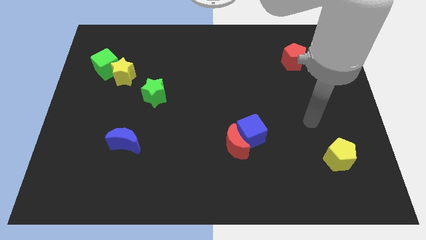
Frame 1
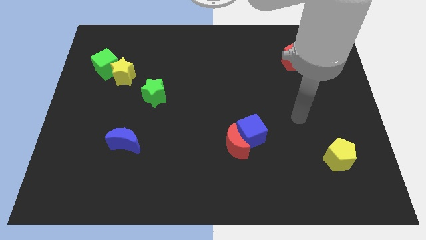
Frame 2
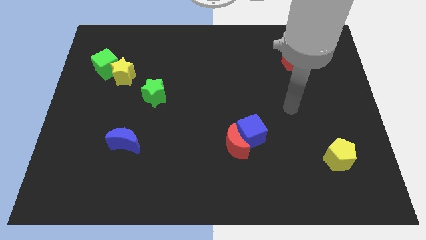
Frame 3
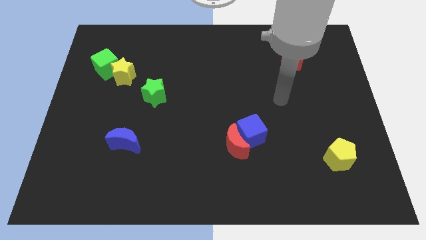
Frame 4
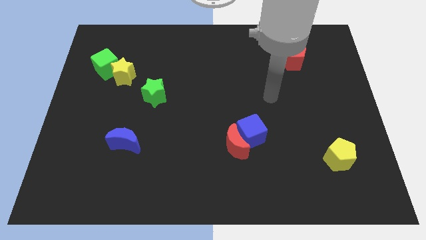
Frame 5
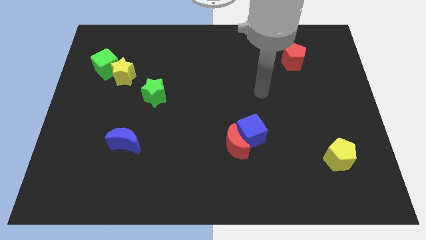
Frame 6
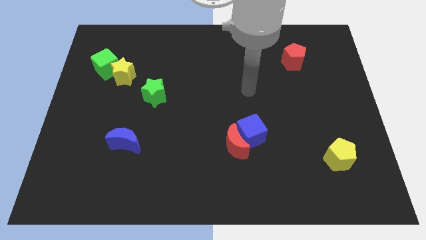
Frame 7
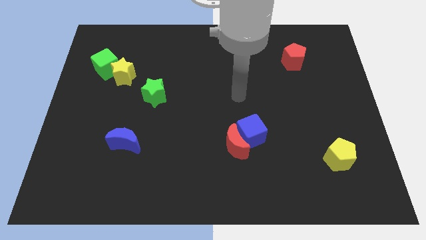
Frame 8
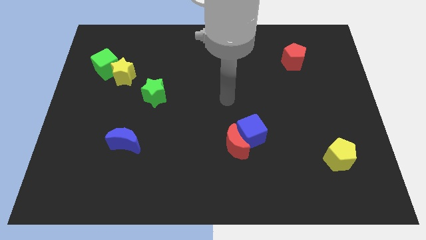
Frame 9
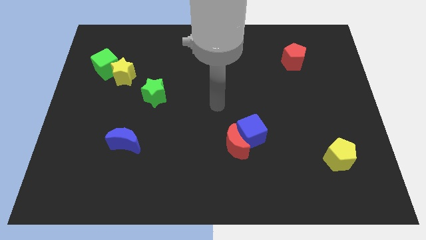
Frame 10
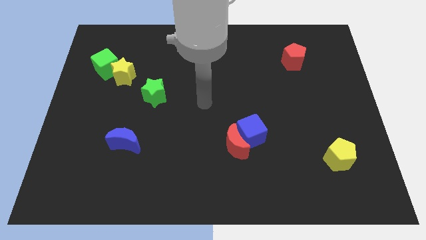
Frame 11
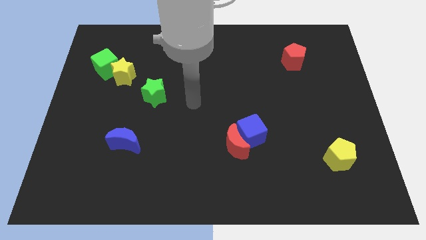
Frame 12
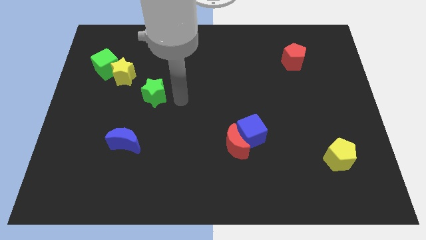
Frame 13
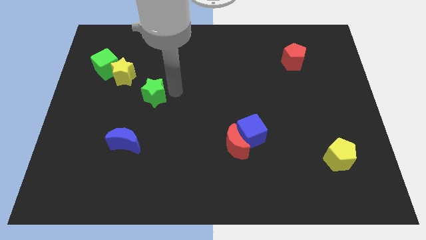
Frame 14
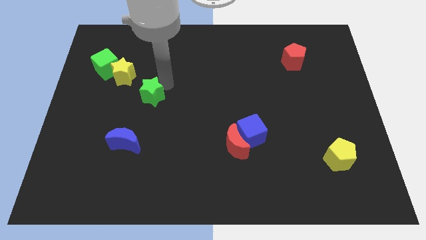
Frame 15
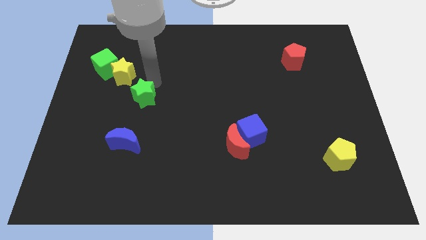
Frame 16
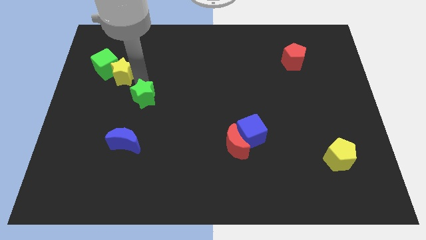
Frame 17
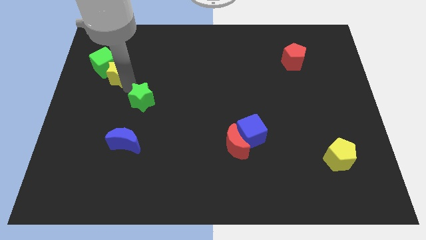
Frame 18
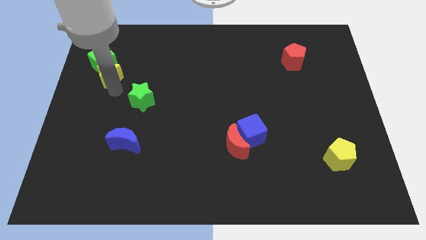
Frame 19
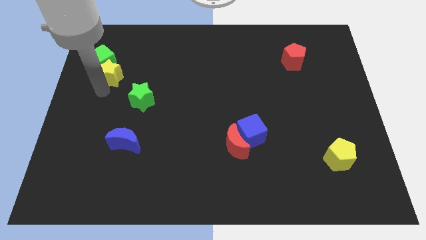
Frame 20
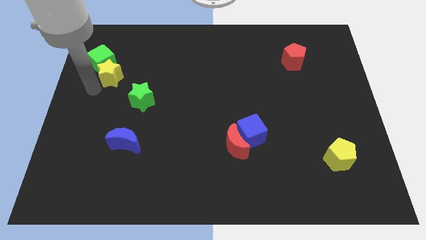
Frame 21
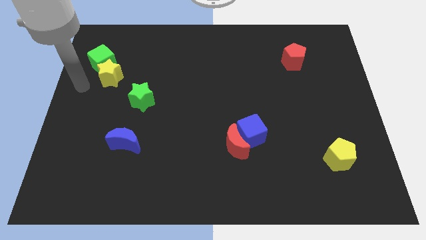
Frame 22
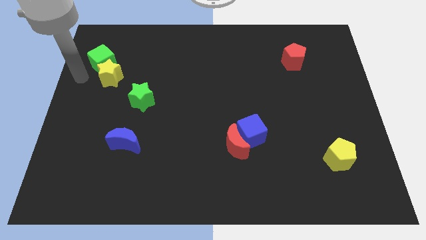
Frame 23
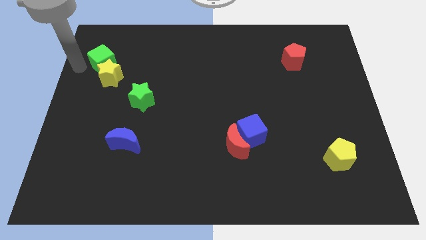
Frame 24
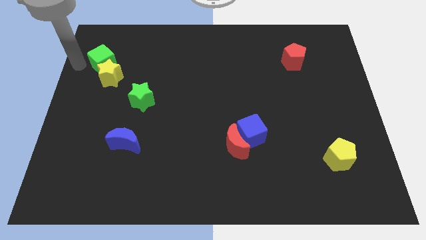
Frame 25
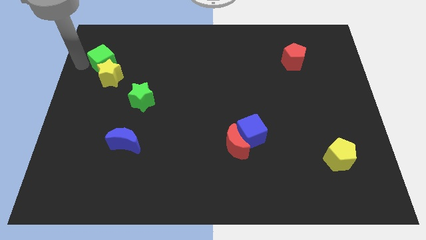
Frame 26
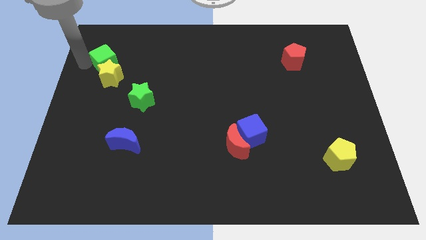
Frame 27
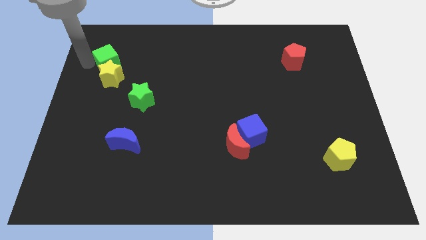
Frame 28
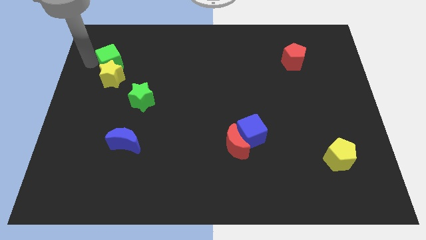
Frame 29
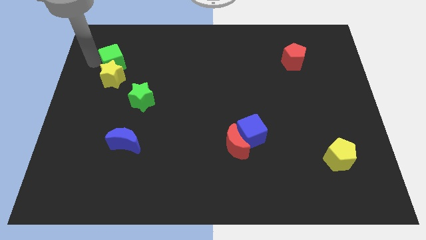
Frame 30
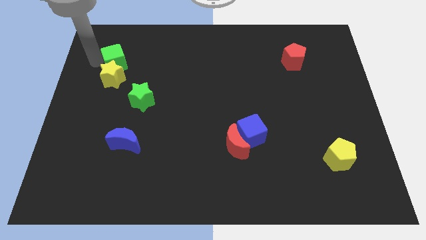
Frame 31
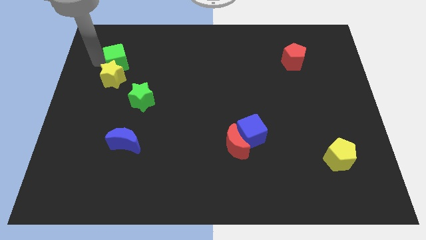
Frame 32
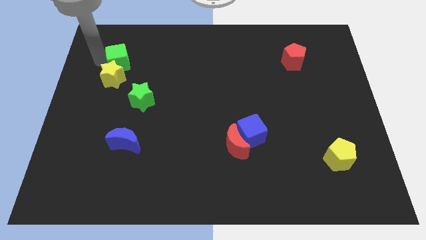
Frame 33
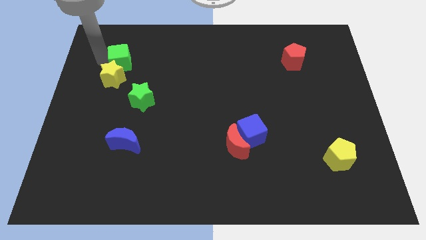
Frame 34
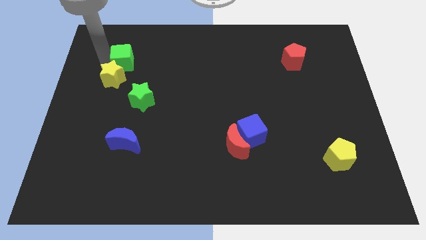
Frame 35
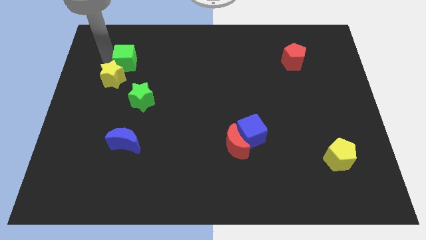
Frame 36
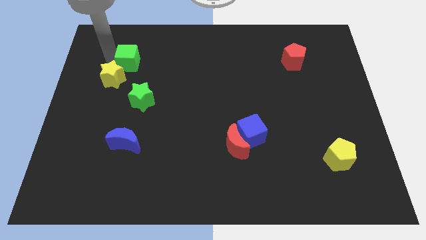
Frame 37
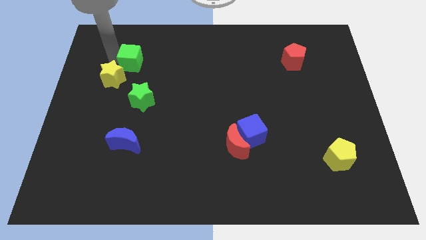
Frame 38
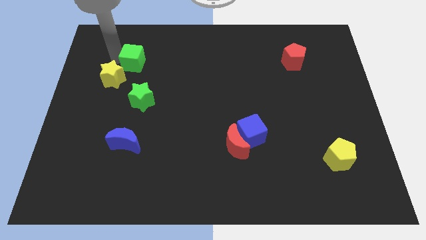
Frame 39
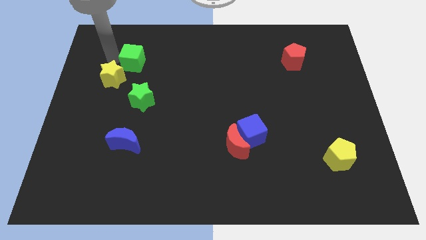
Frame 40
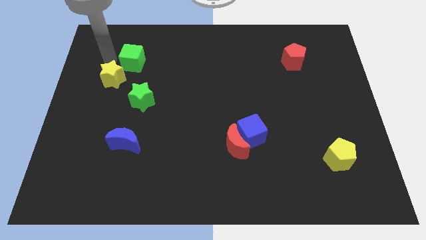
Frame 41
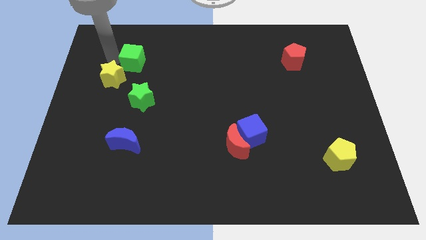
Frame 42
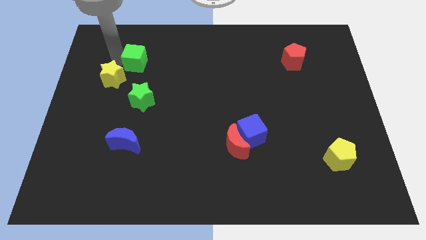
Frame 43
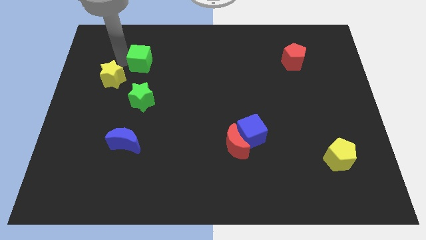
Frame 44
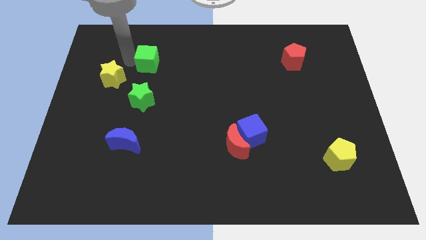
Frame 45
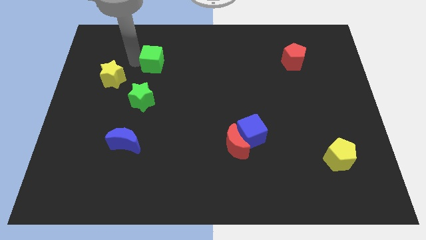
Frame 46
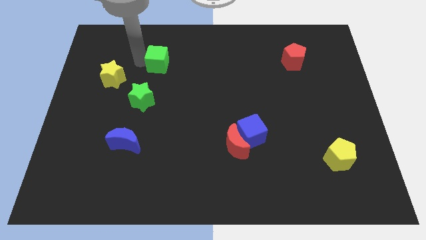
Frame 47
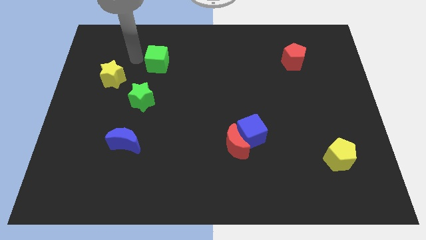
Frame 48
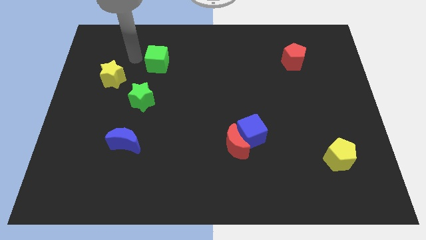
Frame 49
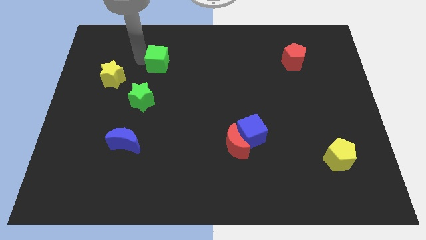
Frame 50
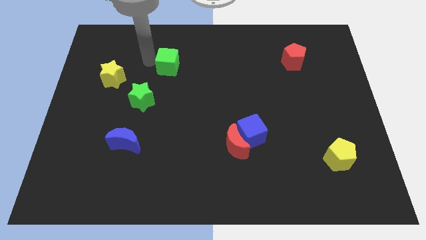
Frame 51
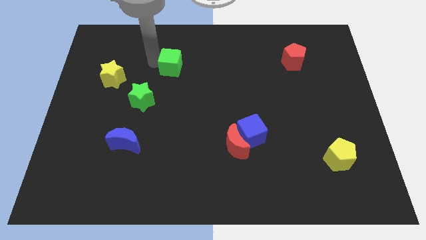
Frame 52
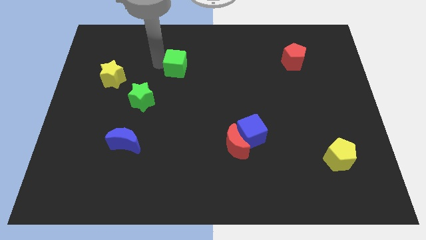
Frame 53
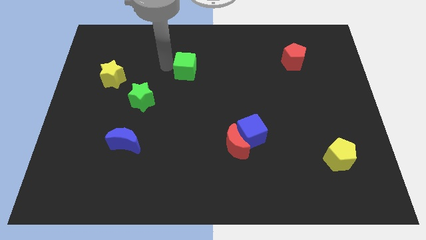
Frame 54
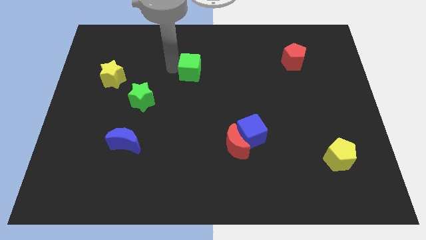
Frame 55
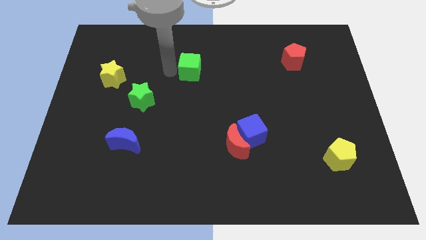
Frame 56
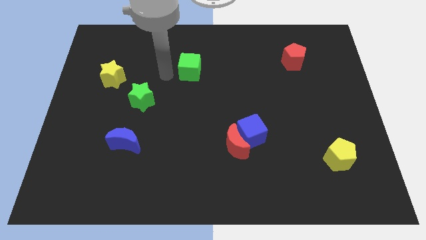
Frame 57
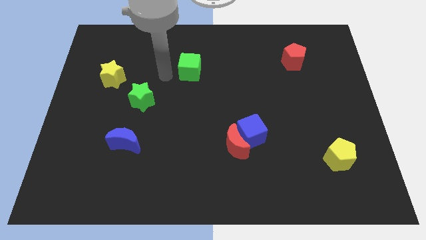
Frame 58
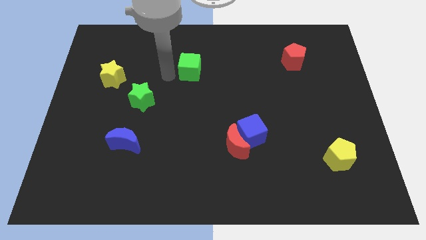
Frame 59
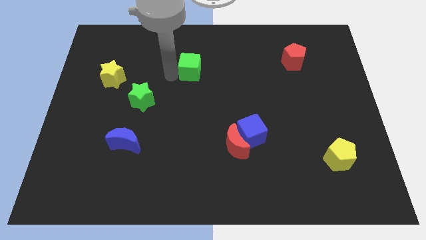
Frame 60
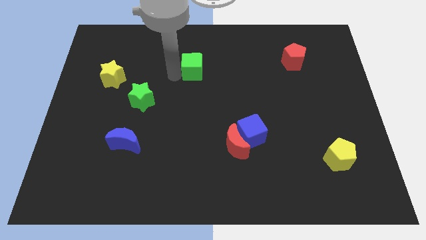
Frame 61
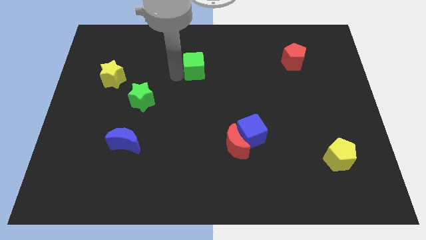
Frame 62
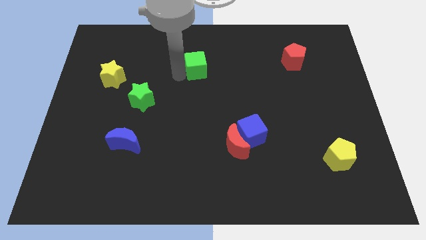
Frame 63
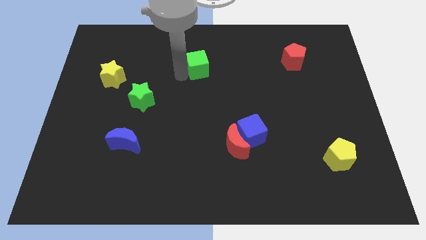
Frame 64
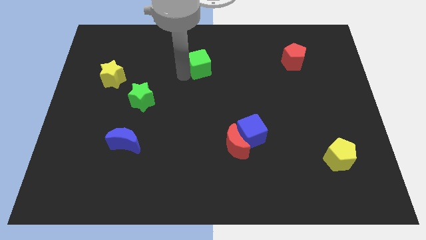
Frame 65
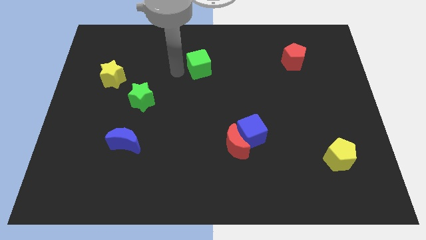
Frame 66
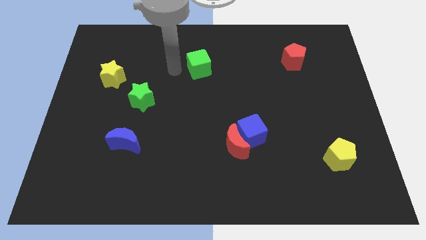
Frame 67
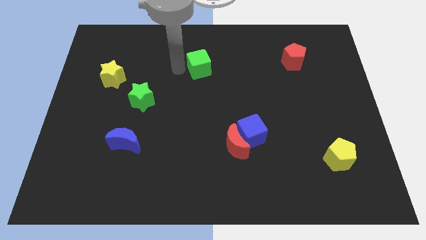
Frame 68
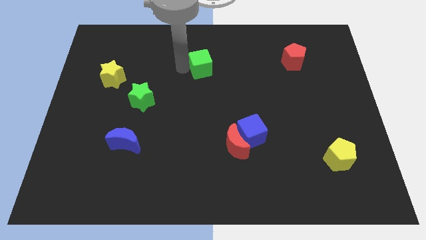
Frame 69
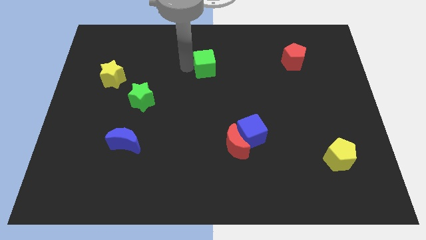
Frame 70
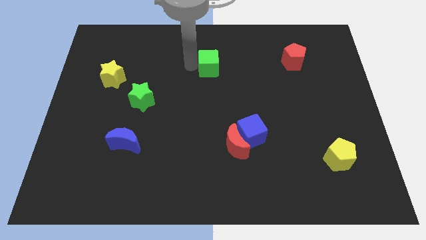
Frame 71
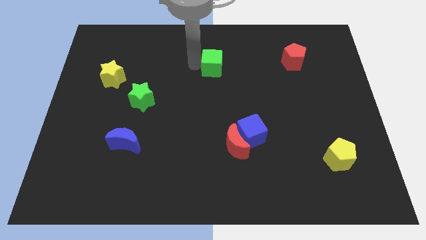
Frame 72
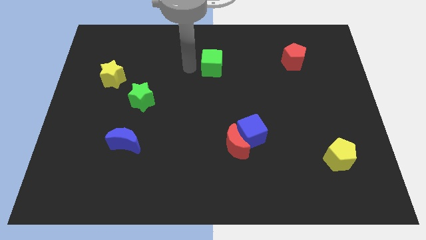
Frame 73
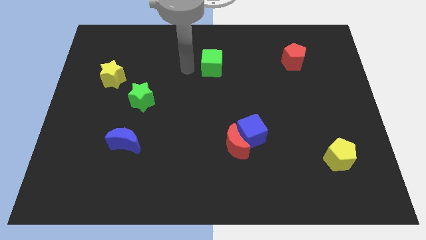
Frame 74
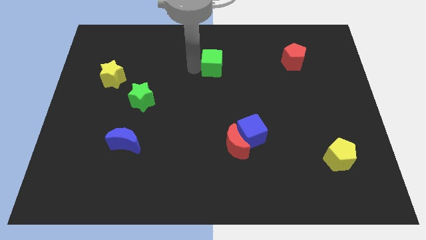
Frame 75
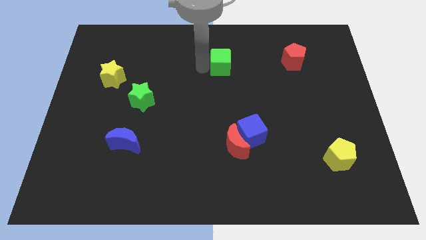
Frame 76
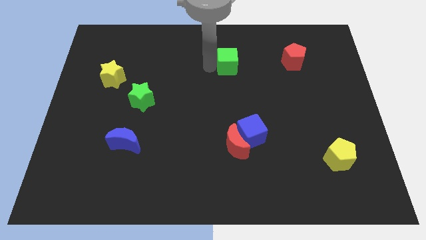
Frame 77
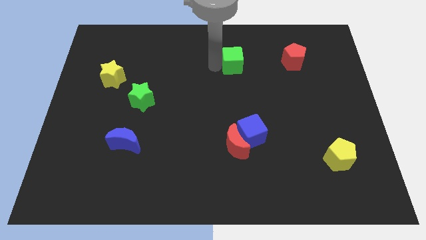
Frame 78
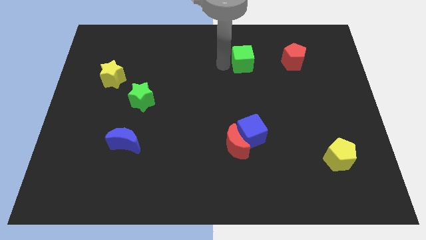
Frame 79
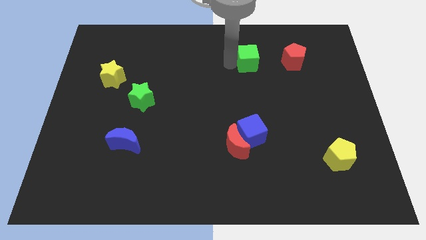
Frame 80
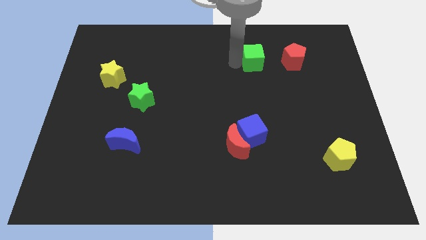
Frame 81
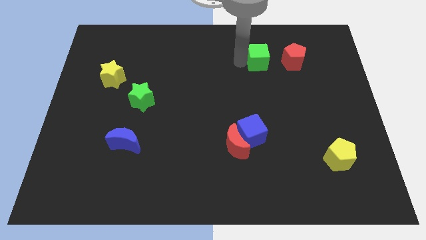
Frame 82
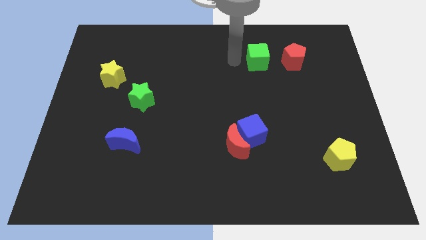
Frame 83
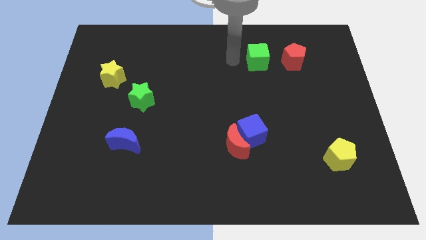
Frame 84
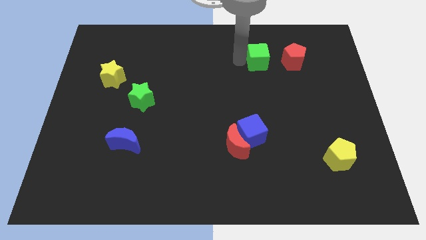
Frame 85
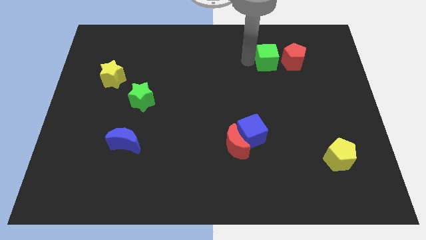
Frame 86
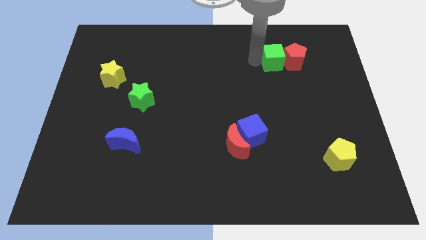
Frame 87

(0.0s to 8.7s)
push the green cube next to the red pentagon
